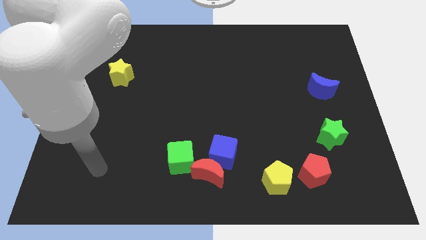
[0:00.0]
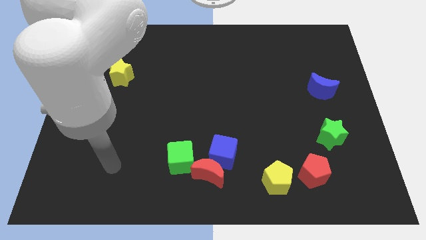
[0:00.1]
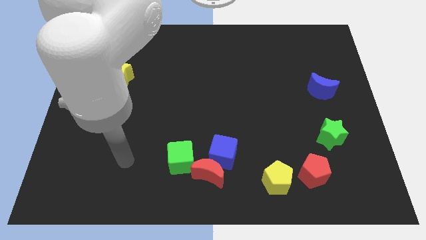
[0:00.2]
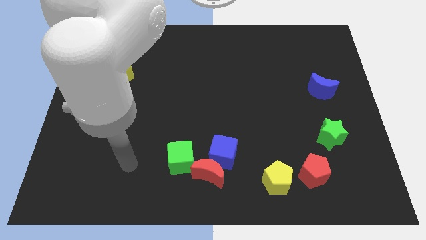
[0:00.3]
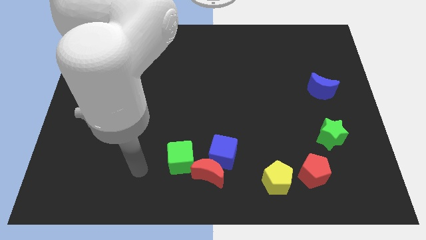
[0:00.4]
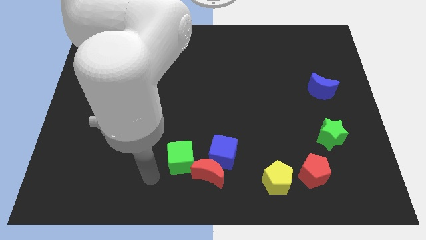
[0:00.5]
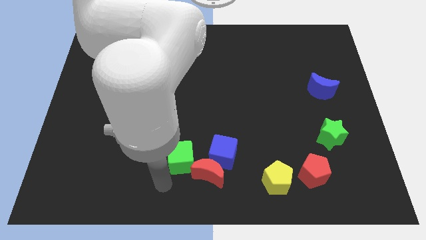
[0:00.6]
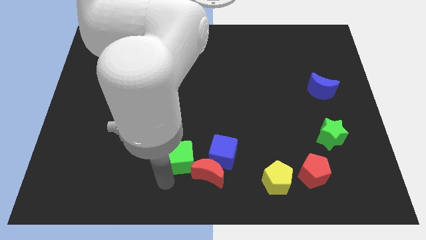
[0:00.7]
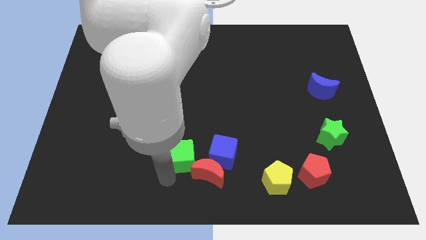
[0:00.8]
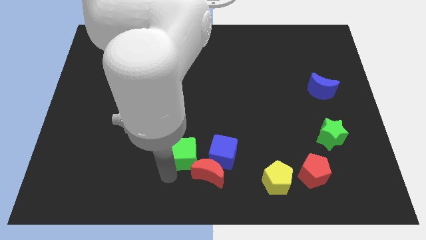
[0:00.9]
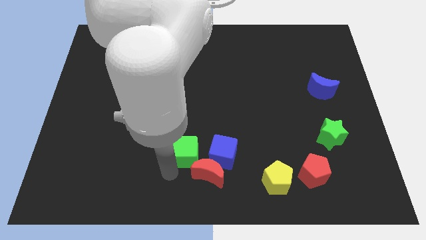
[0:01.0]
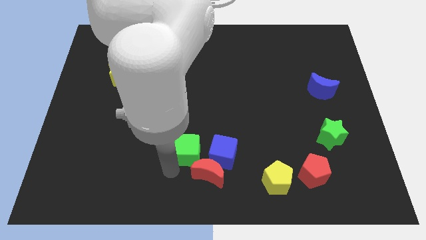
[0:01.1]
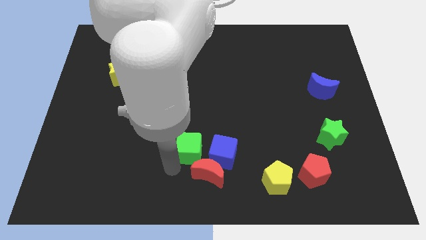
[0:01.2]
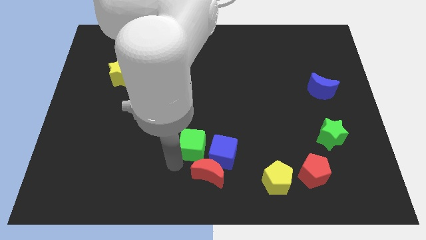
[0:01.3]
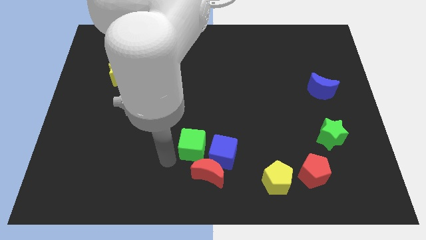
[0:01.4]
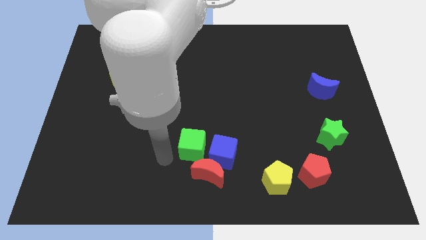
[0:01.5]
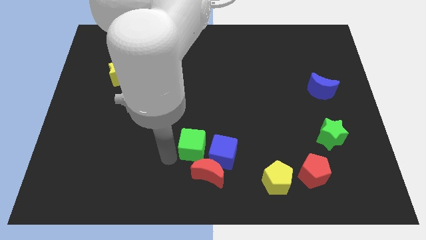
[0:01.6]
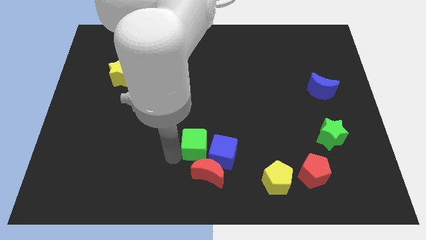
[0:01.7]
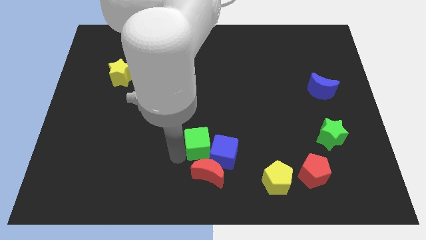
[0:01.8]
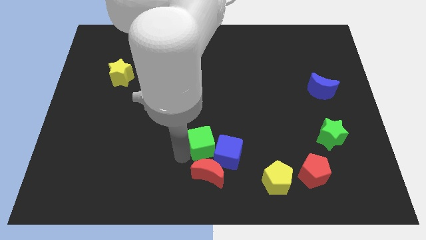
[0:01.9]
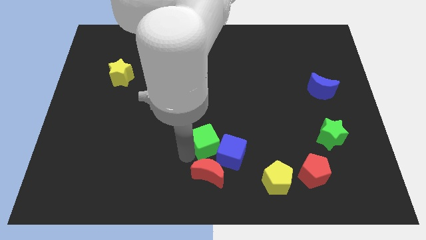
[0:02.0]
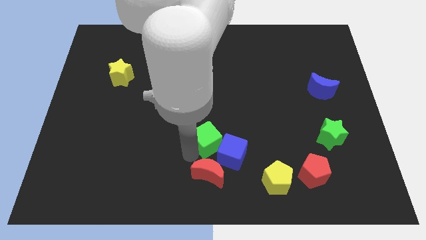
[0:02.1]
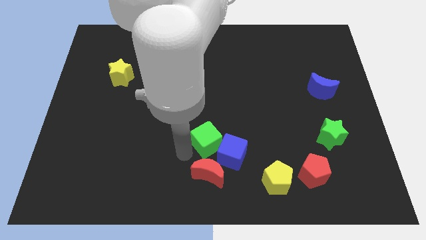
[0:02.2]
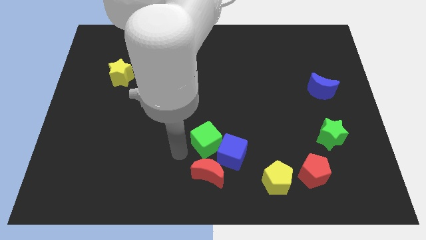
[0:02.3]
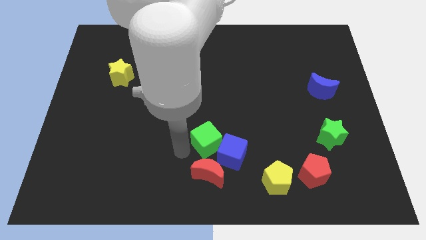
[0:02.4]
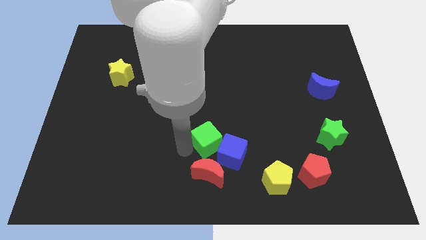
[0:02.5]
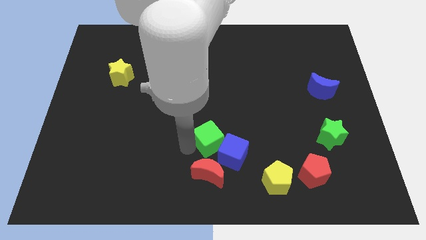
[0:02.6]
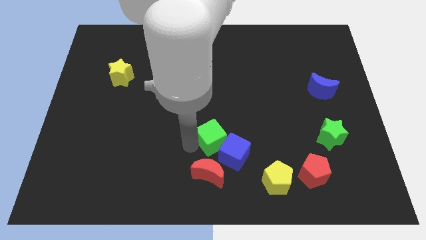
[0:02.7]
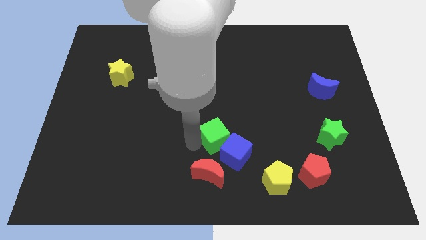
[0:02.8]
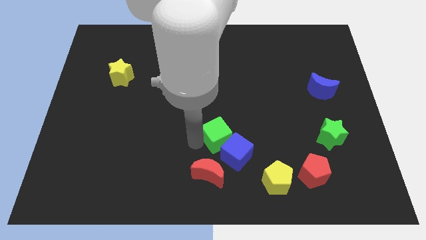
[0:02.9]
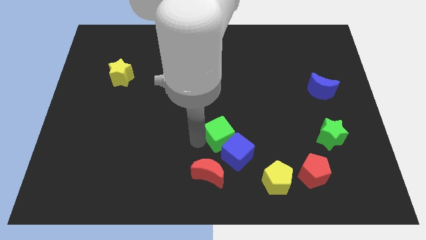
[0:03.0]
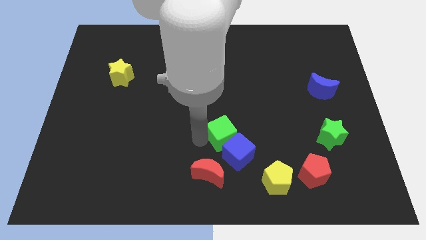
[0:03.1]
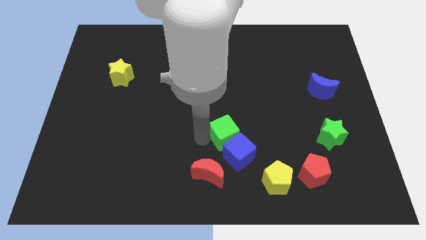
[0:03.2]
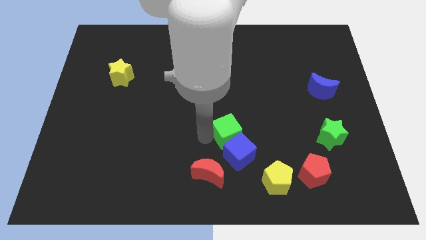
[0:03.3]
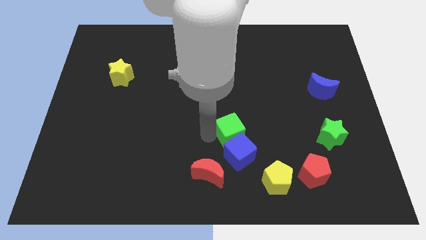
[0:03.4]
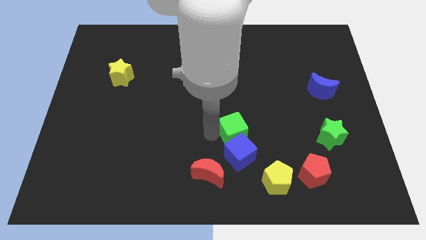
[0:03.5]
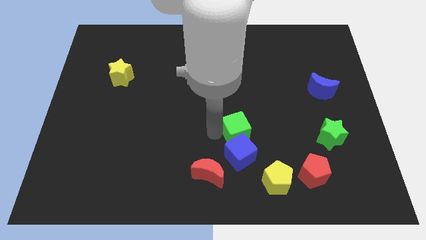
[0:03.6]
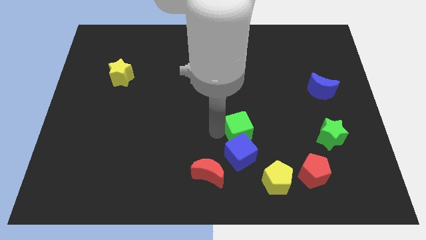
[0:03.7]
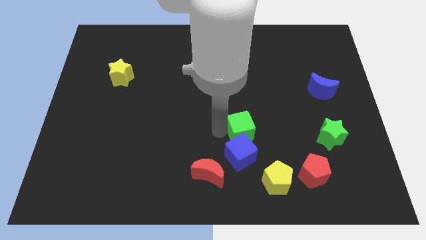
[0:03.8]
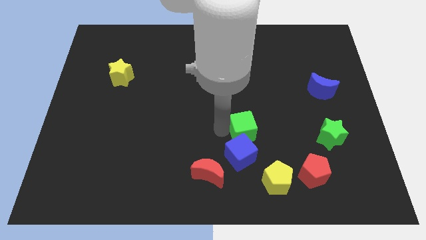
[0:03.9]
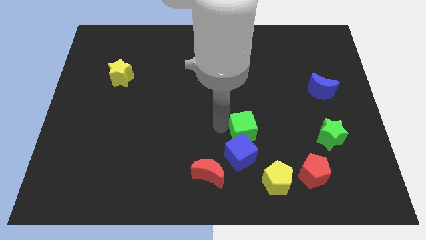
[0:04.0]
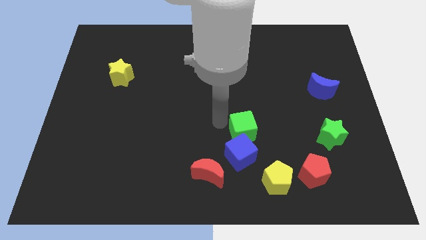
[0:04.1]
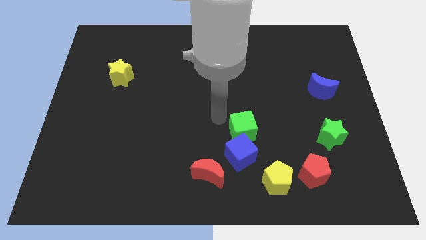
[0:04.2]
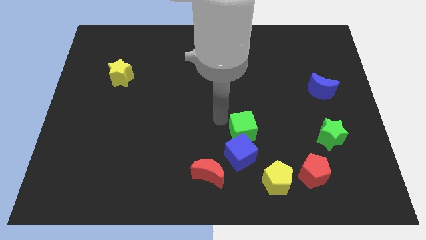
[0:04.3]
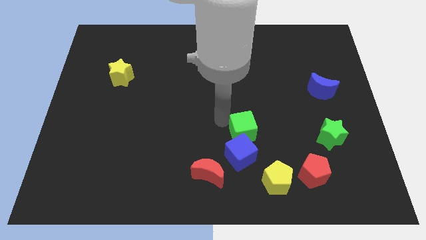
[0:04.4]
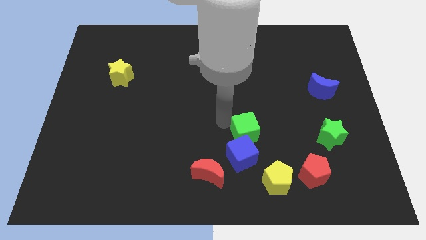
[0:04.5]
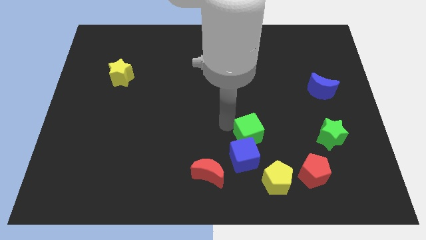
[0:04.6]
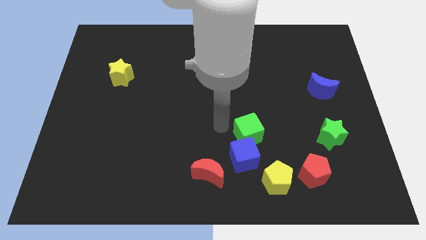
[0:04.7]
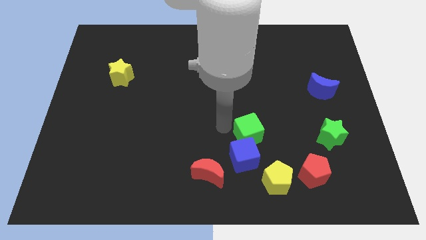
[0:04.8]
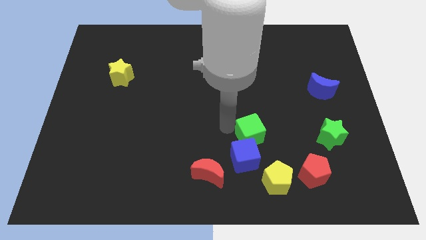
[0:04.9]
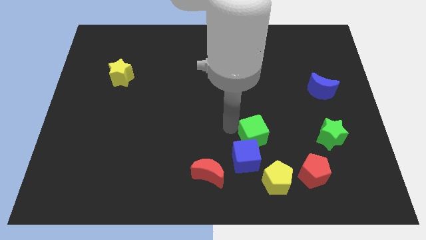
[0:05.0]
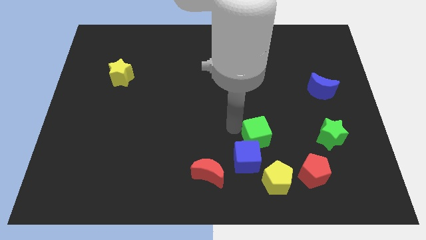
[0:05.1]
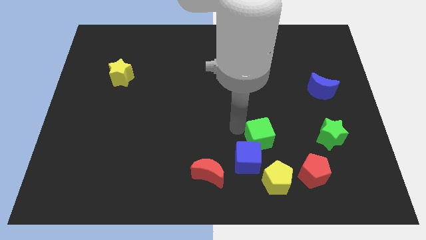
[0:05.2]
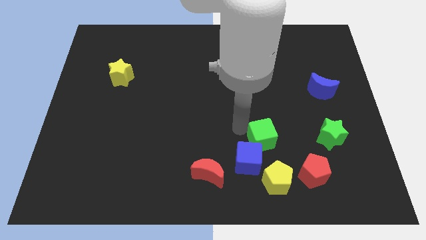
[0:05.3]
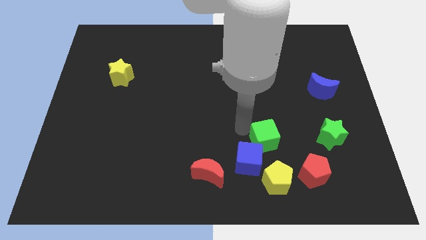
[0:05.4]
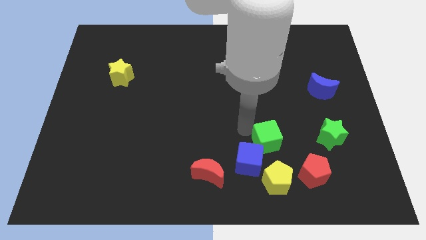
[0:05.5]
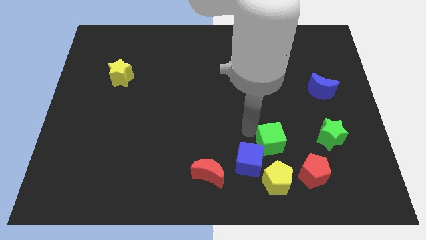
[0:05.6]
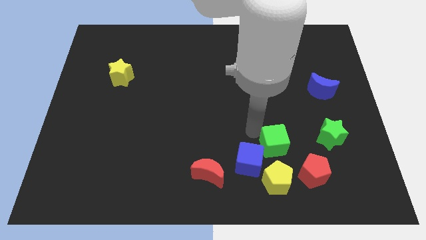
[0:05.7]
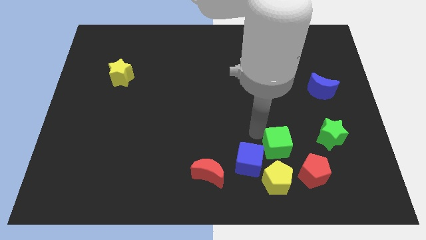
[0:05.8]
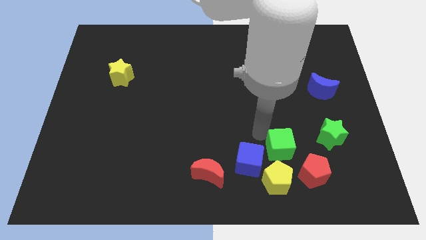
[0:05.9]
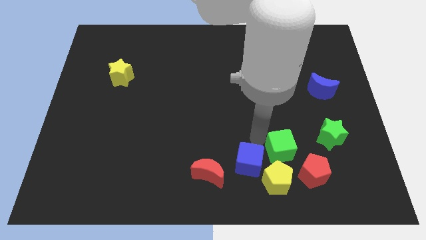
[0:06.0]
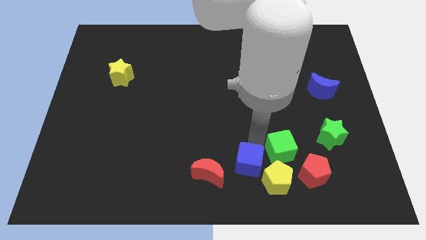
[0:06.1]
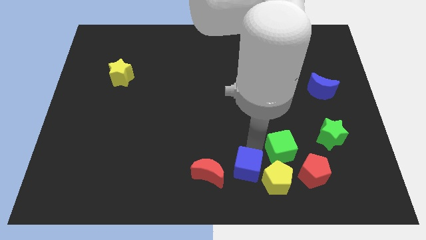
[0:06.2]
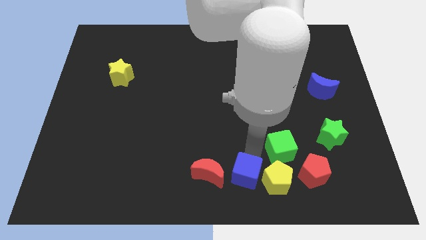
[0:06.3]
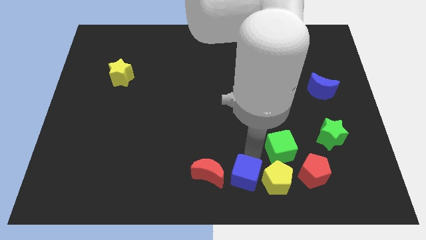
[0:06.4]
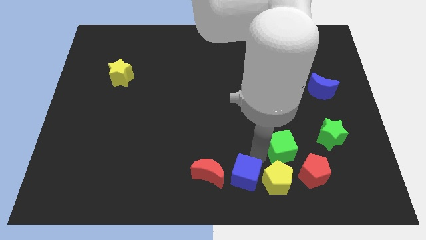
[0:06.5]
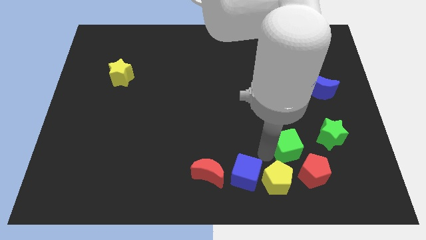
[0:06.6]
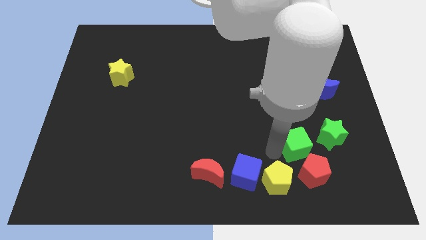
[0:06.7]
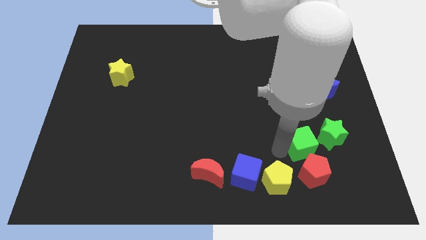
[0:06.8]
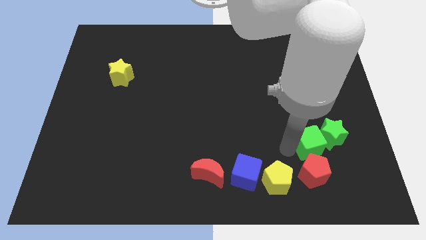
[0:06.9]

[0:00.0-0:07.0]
move the green cube to the green star
